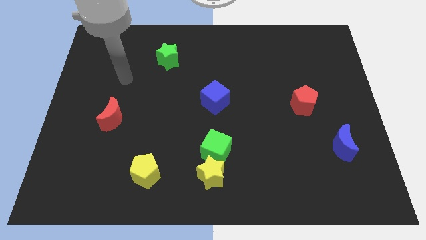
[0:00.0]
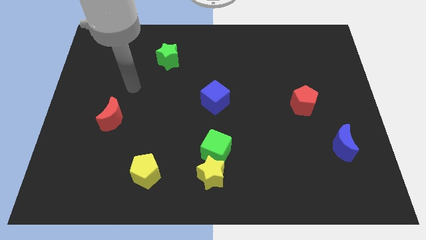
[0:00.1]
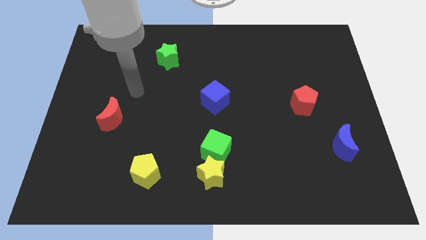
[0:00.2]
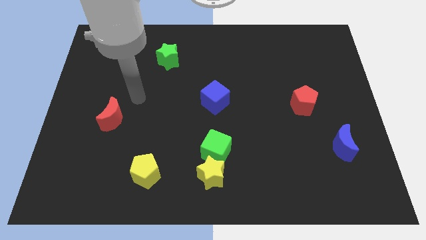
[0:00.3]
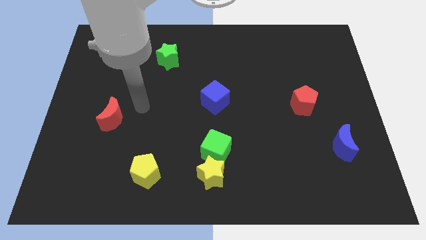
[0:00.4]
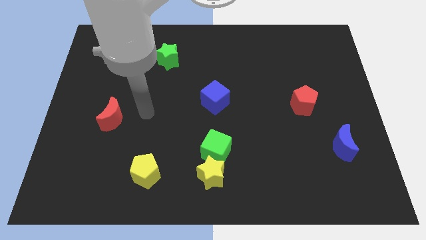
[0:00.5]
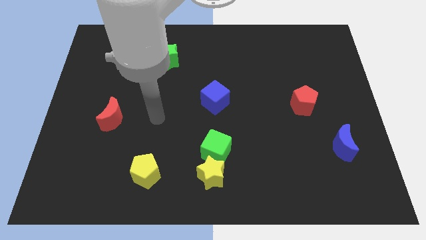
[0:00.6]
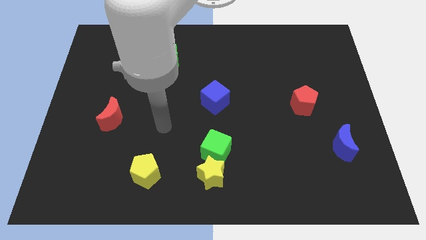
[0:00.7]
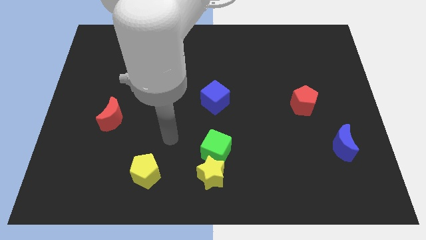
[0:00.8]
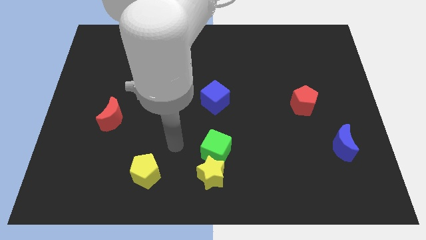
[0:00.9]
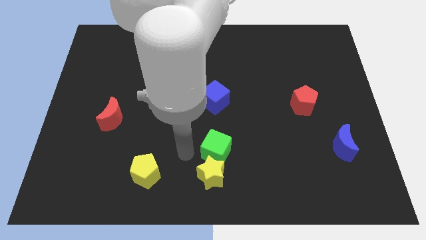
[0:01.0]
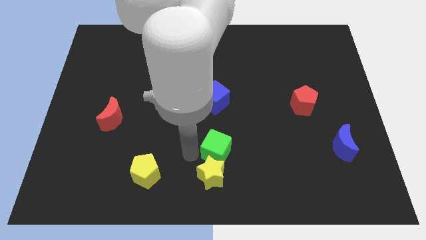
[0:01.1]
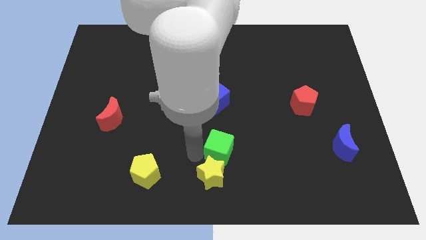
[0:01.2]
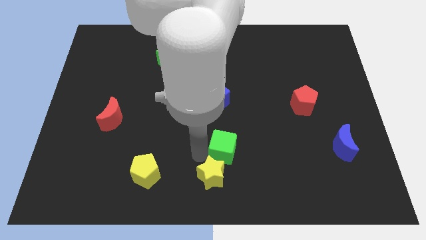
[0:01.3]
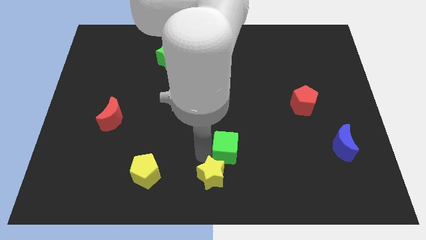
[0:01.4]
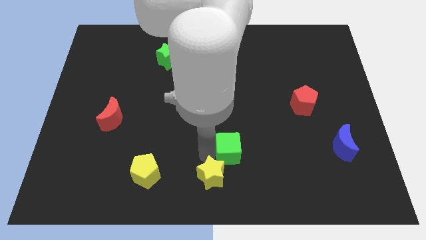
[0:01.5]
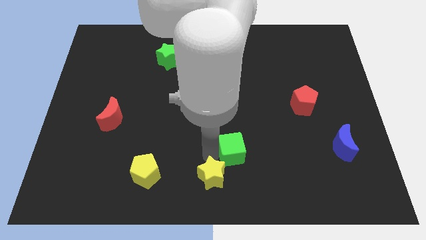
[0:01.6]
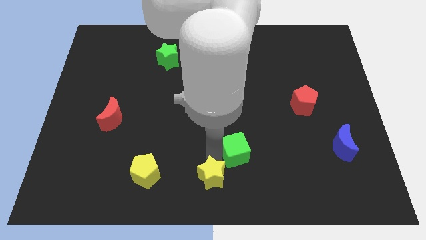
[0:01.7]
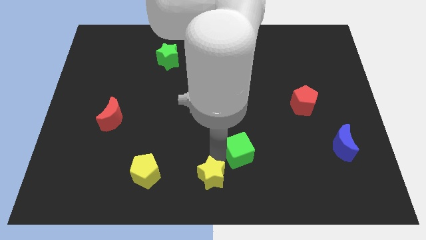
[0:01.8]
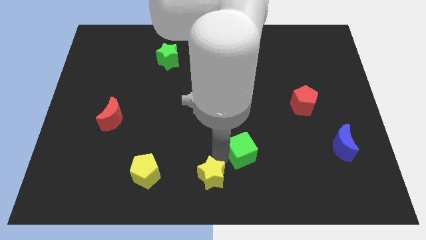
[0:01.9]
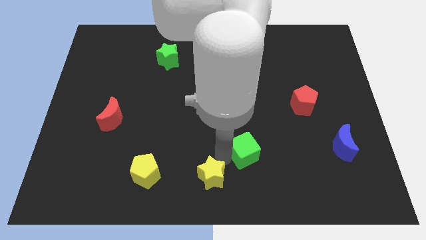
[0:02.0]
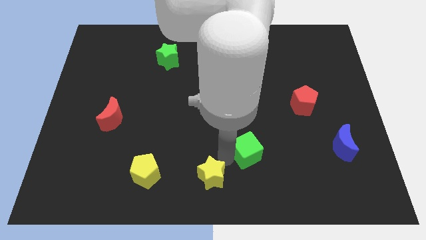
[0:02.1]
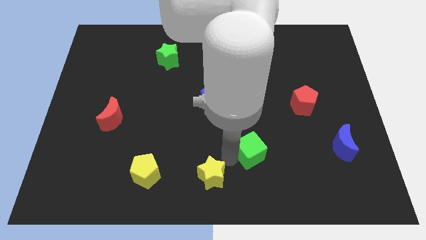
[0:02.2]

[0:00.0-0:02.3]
push the green cube a bit right

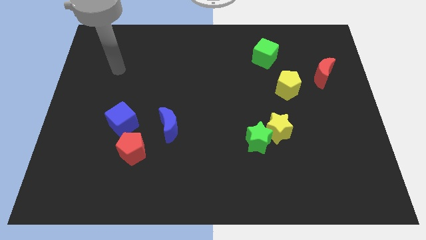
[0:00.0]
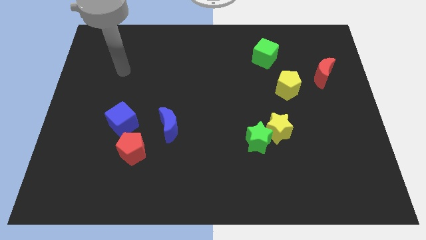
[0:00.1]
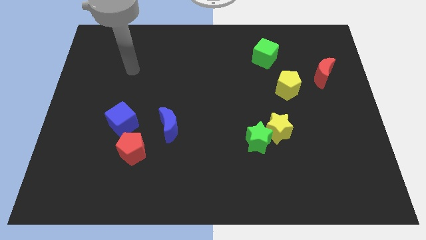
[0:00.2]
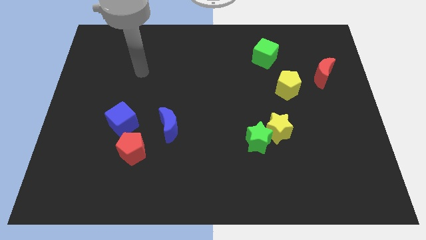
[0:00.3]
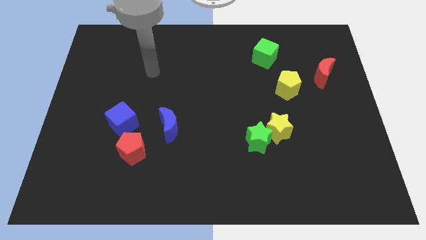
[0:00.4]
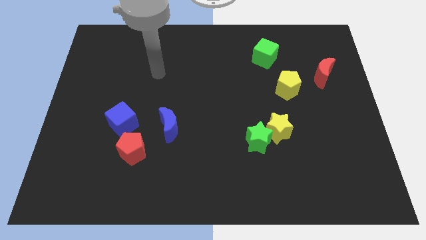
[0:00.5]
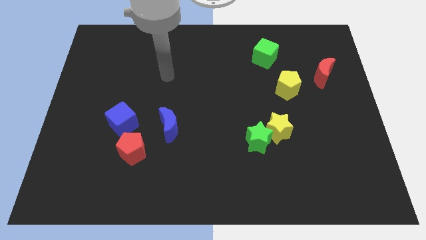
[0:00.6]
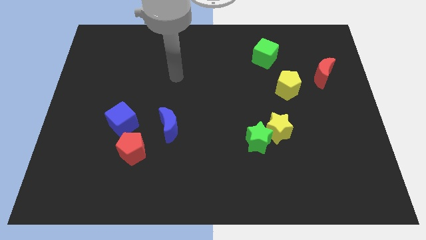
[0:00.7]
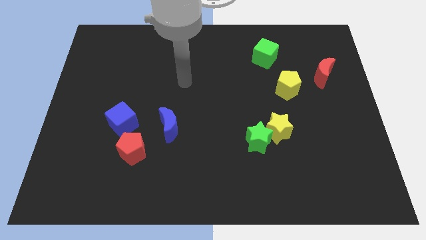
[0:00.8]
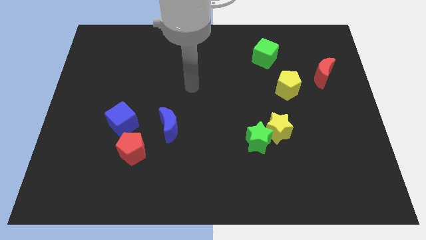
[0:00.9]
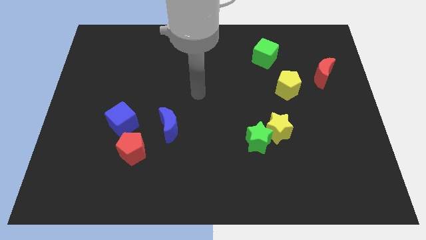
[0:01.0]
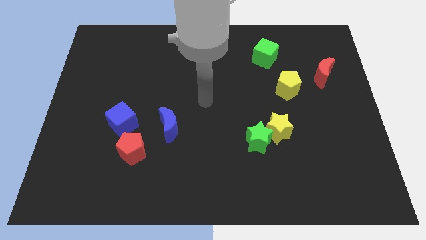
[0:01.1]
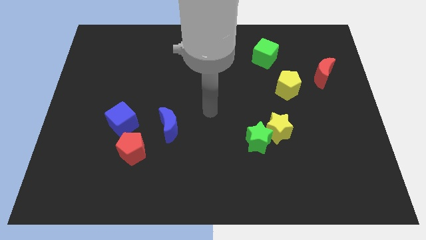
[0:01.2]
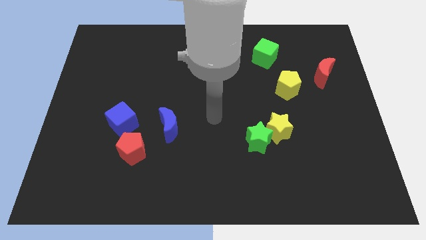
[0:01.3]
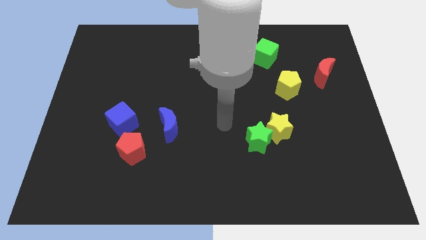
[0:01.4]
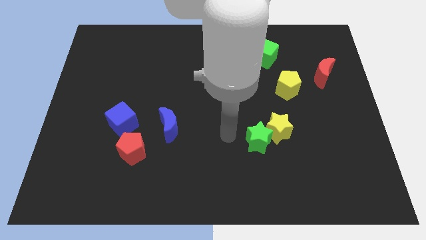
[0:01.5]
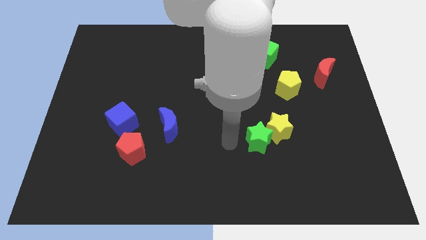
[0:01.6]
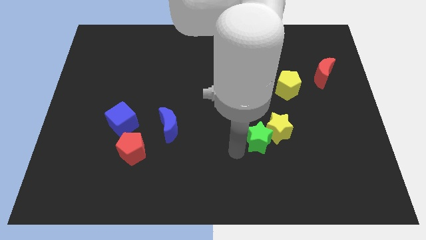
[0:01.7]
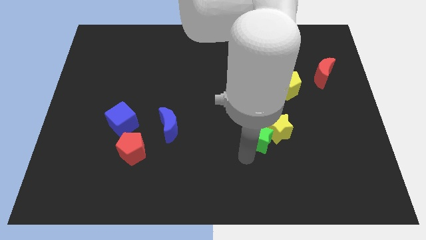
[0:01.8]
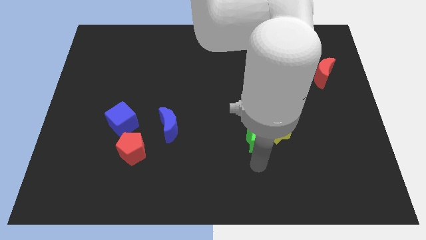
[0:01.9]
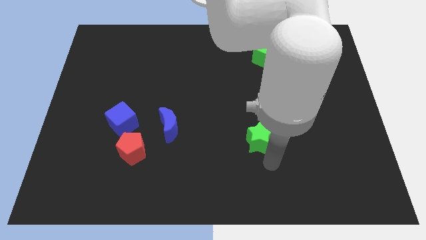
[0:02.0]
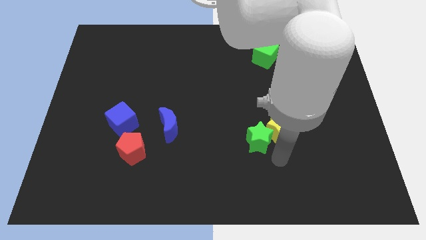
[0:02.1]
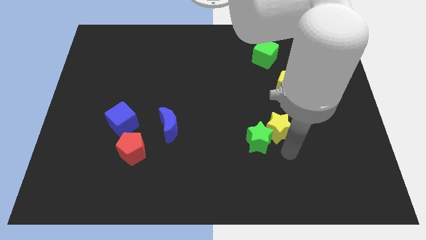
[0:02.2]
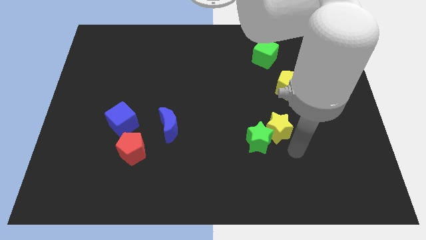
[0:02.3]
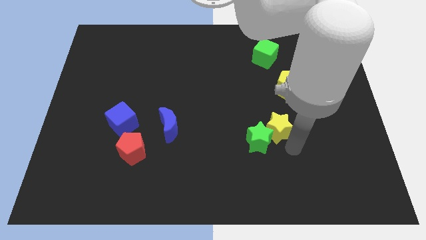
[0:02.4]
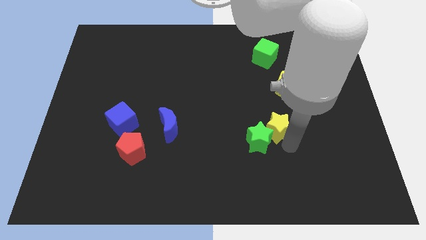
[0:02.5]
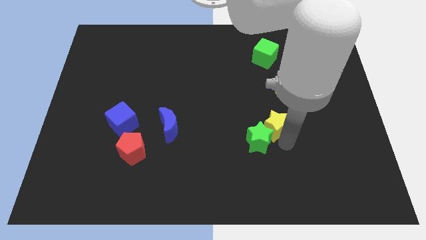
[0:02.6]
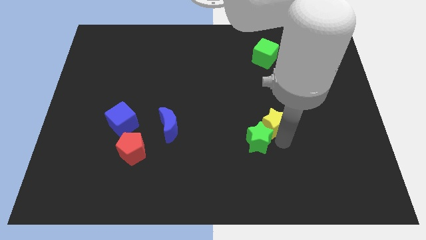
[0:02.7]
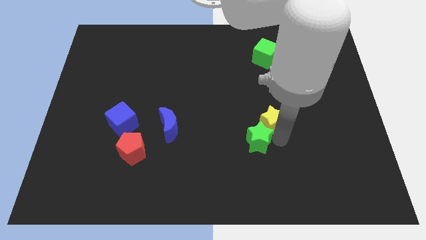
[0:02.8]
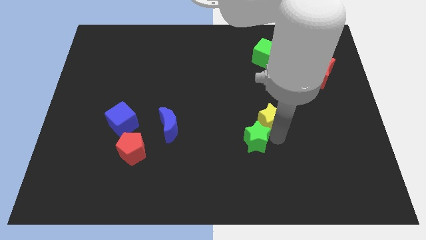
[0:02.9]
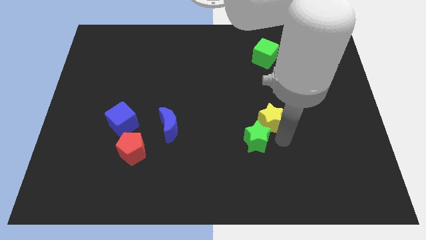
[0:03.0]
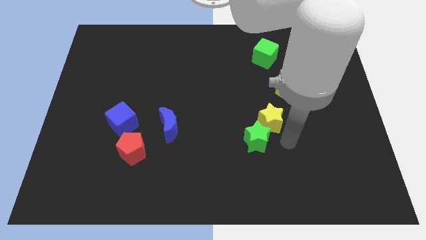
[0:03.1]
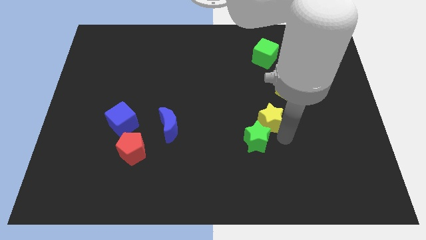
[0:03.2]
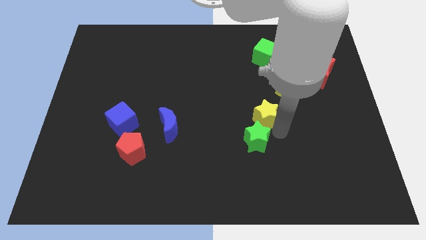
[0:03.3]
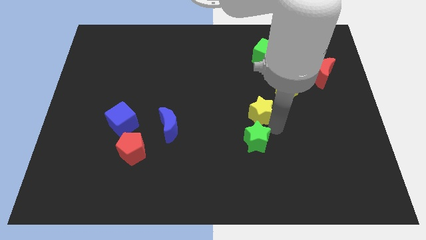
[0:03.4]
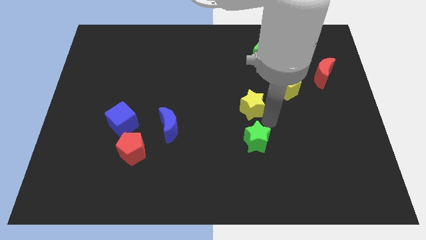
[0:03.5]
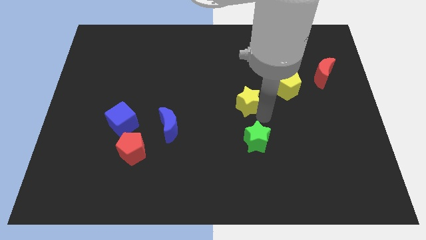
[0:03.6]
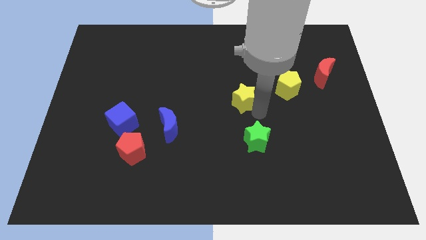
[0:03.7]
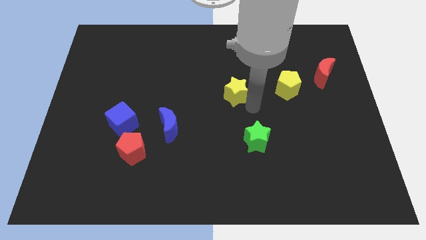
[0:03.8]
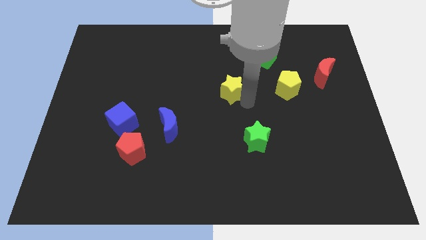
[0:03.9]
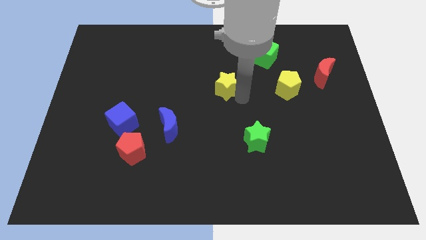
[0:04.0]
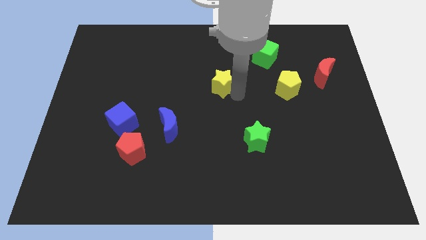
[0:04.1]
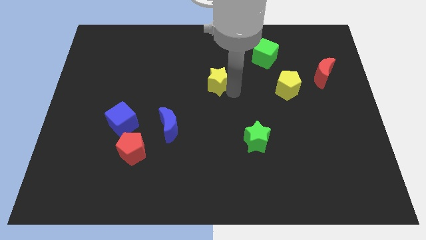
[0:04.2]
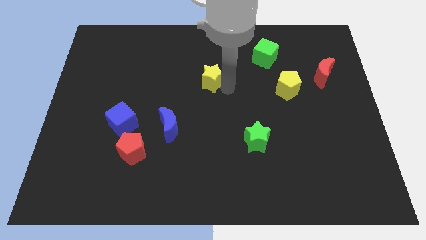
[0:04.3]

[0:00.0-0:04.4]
slide the yellow star diagonally up and to the left

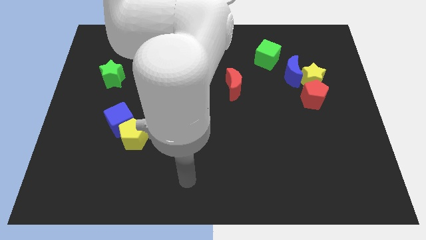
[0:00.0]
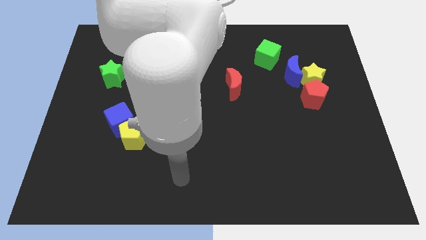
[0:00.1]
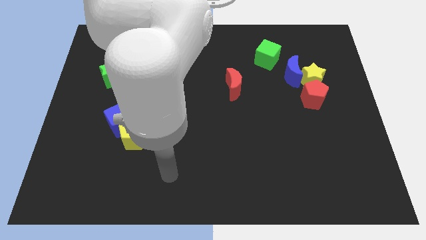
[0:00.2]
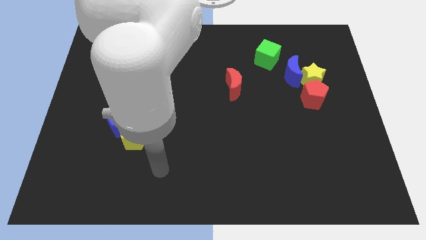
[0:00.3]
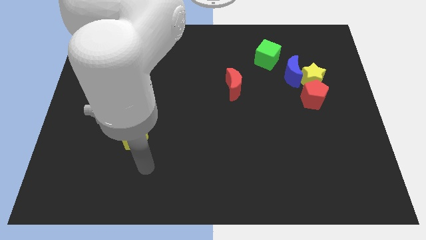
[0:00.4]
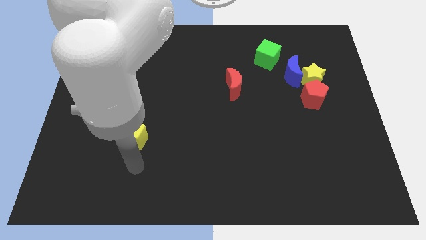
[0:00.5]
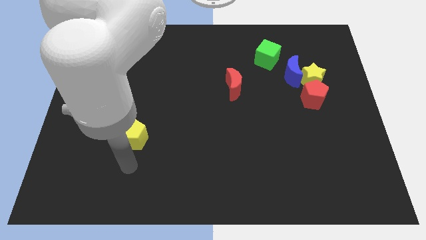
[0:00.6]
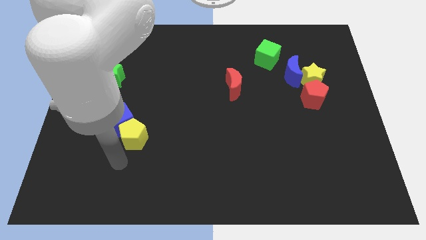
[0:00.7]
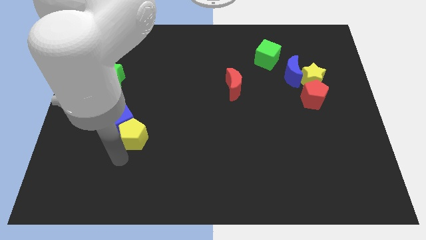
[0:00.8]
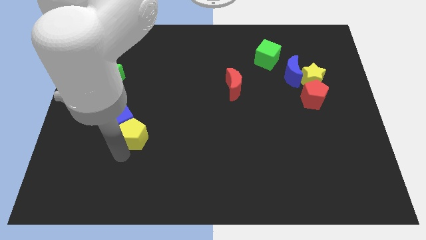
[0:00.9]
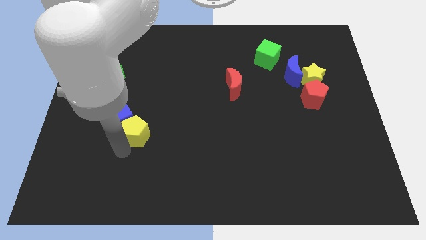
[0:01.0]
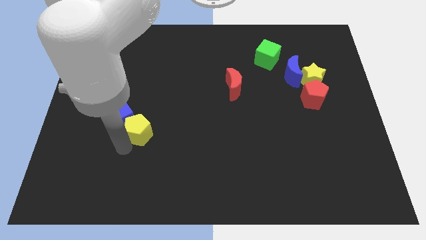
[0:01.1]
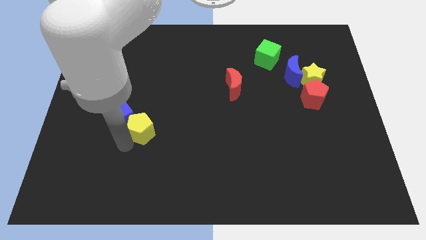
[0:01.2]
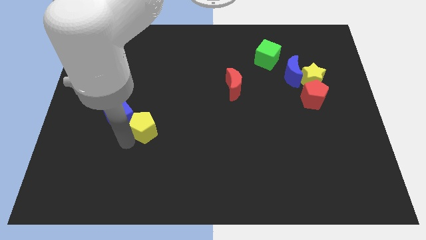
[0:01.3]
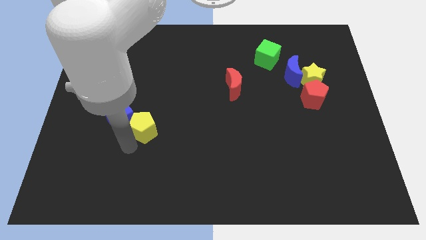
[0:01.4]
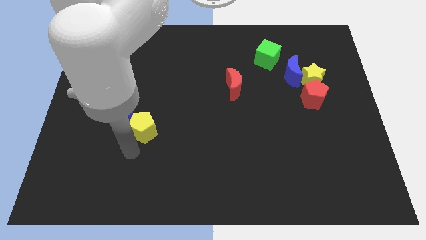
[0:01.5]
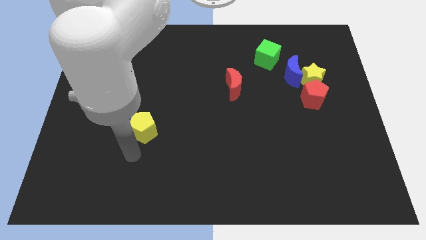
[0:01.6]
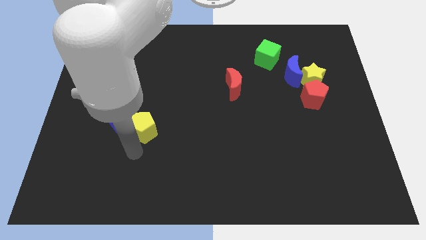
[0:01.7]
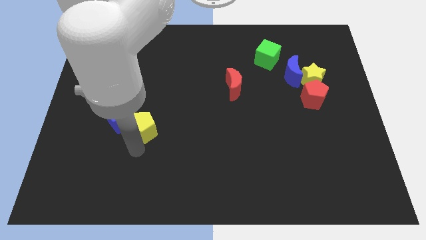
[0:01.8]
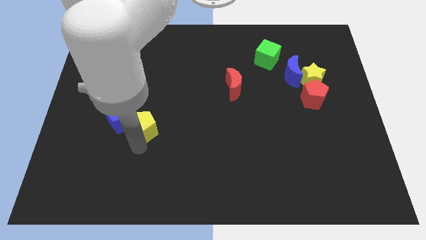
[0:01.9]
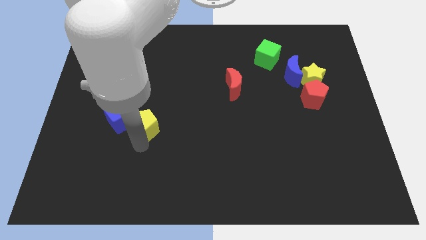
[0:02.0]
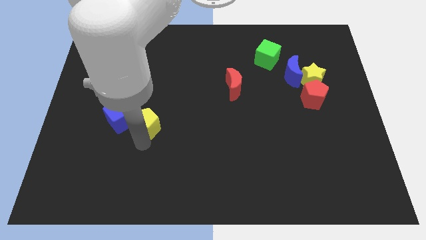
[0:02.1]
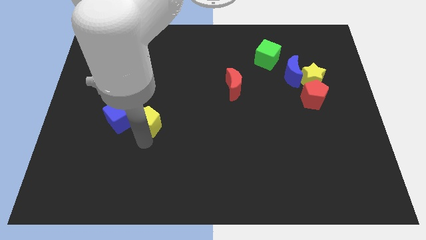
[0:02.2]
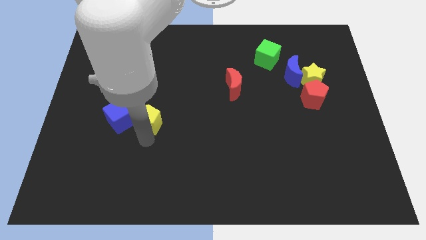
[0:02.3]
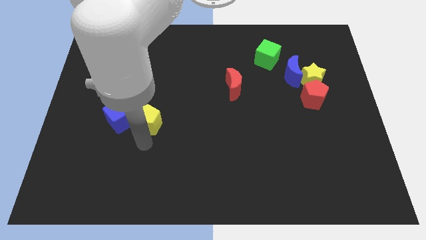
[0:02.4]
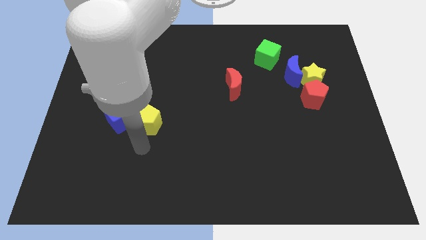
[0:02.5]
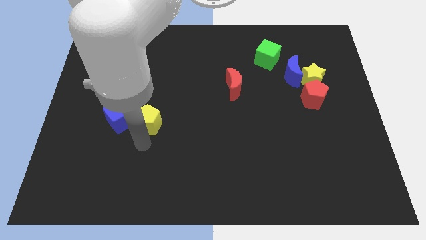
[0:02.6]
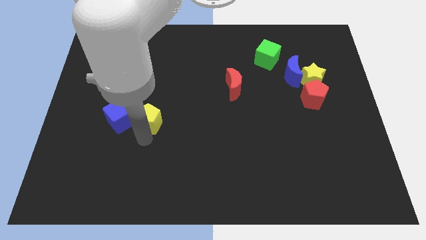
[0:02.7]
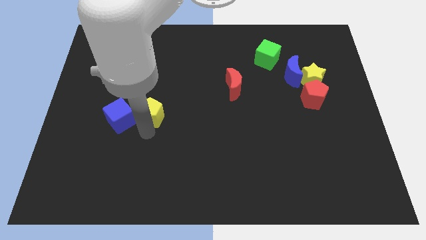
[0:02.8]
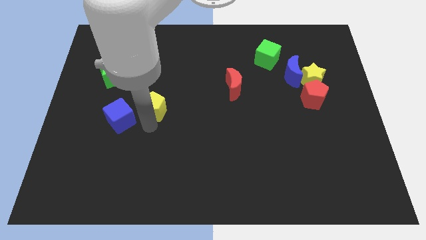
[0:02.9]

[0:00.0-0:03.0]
slightly push the yellow pentagon up
